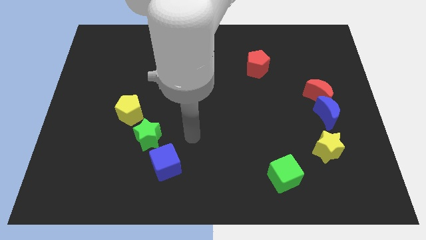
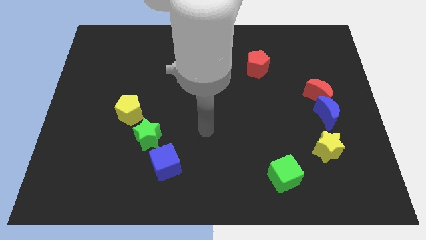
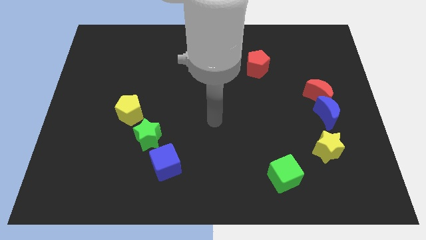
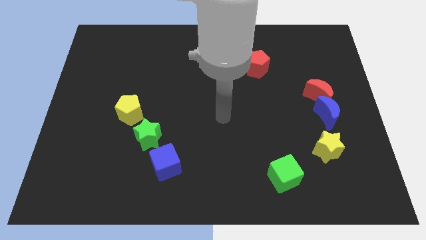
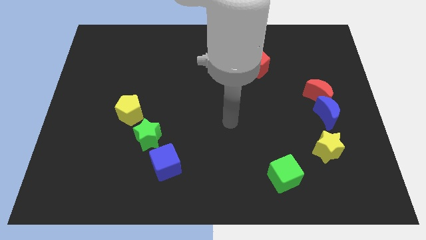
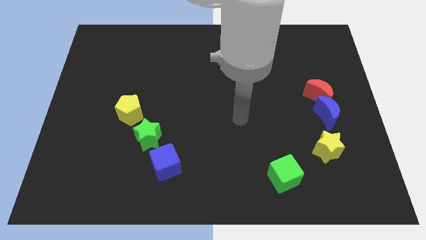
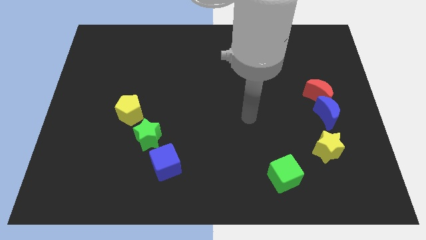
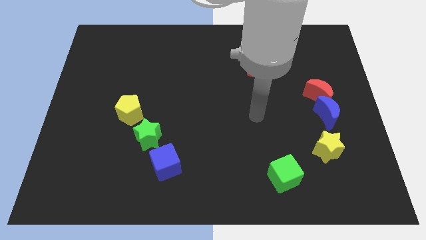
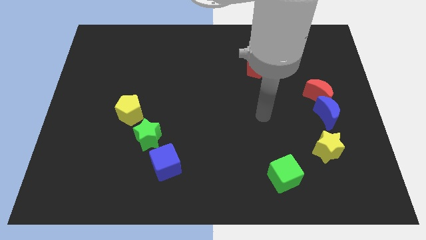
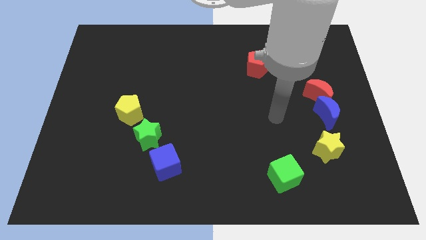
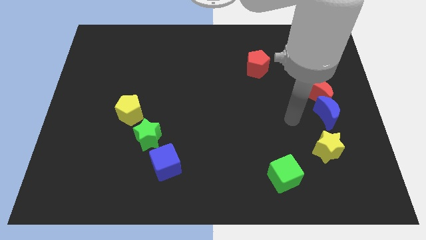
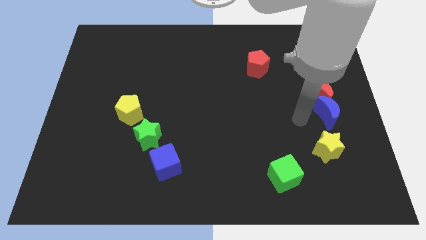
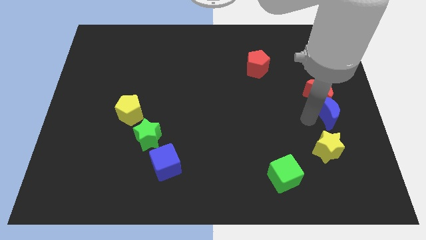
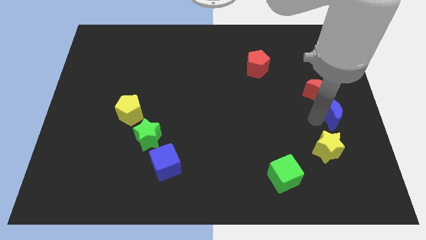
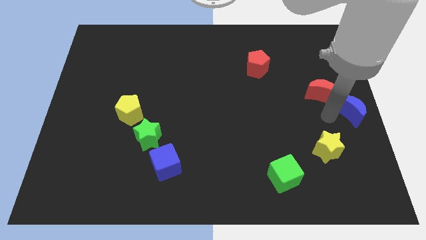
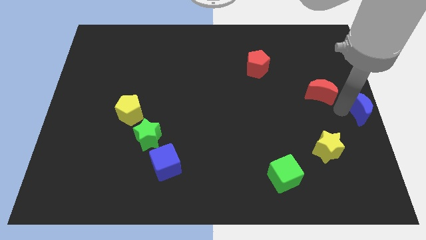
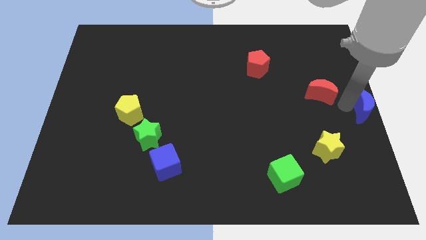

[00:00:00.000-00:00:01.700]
move the red moon away from the blue moon

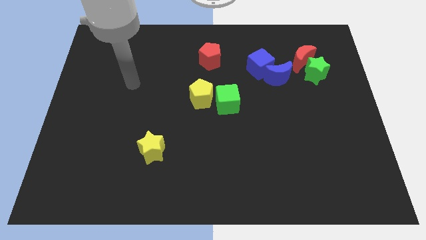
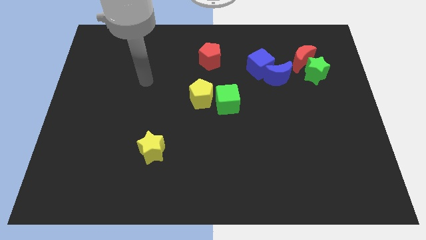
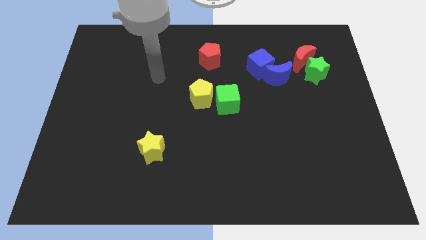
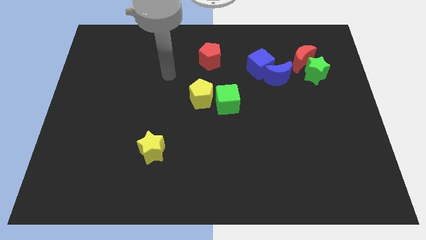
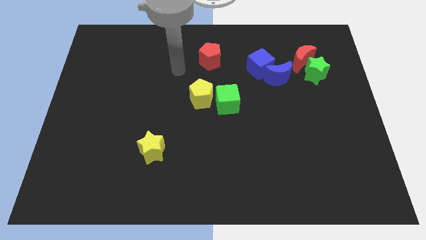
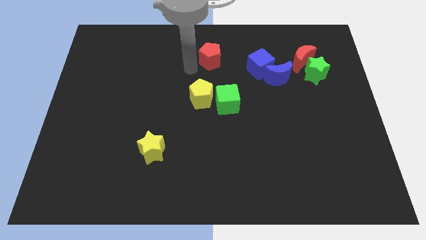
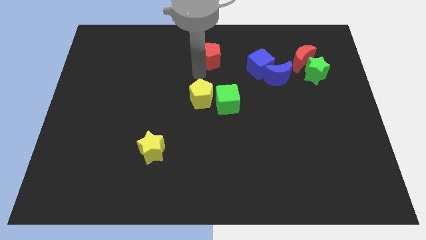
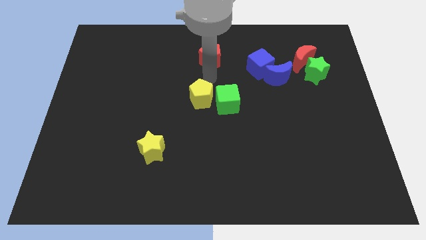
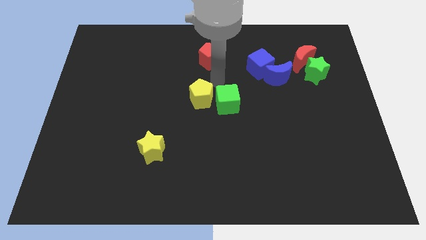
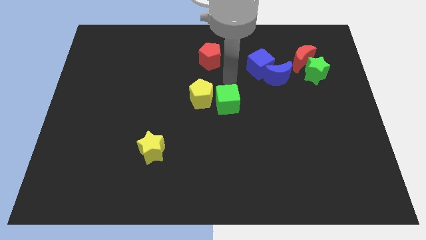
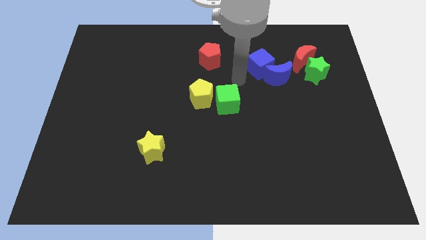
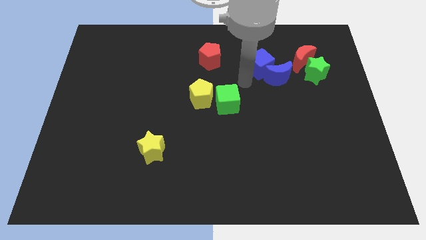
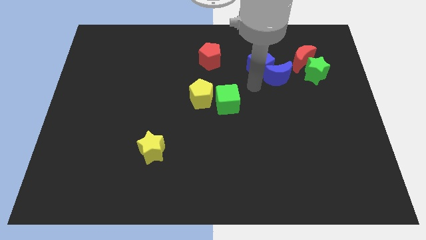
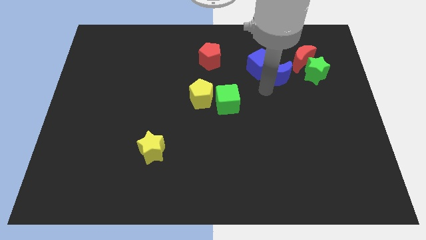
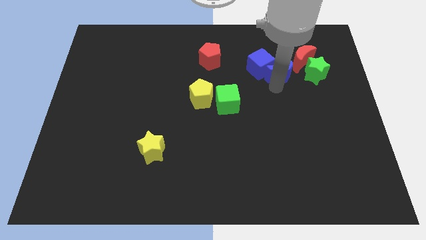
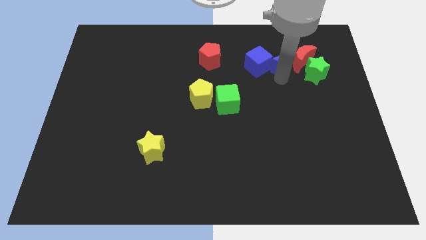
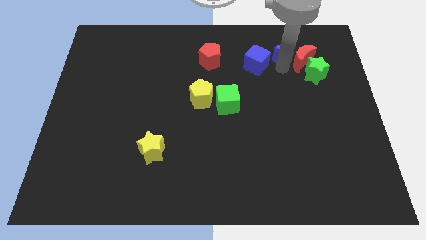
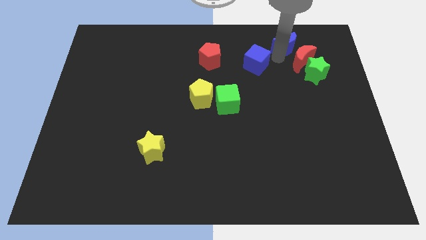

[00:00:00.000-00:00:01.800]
pull the blue cube apart from the blue moon

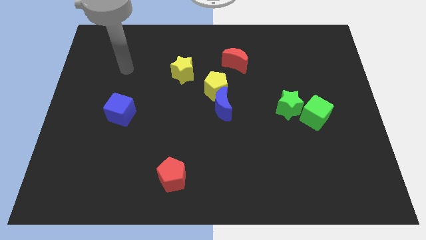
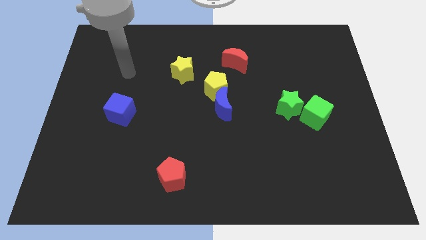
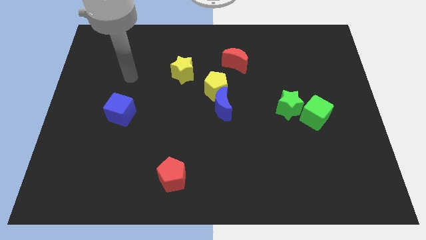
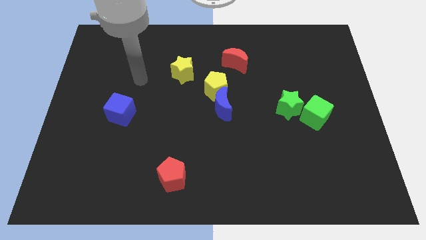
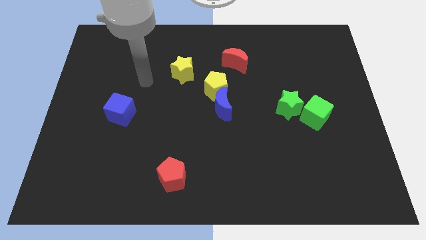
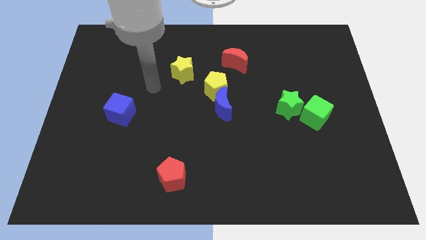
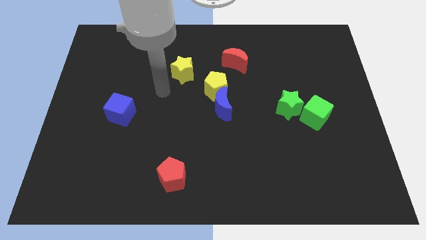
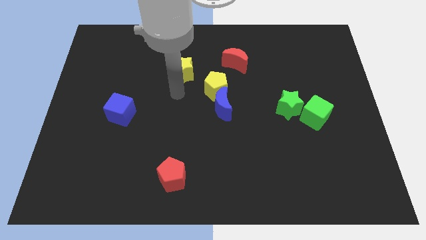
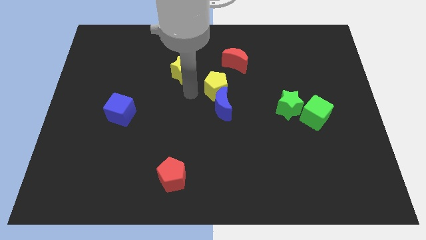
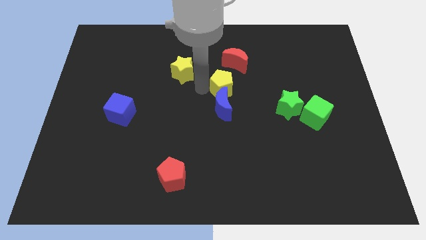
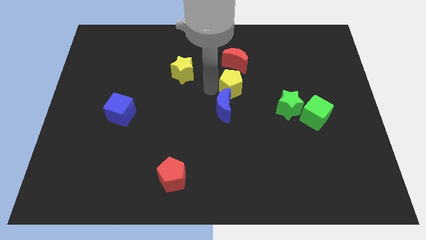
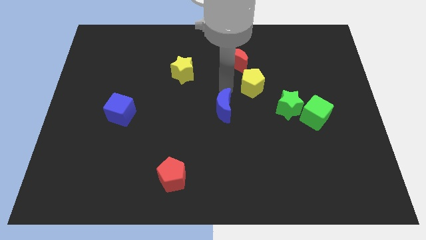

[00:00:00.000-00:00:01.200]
separate the blue moon from the yellow pentagon

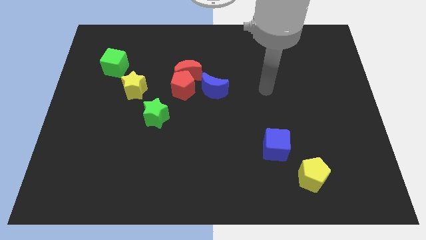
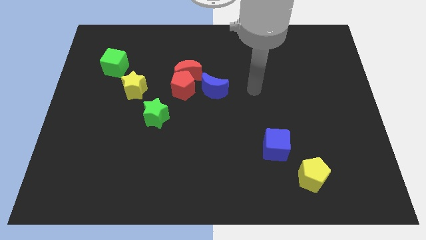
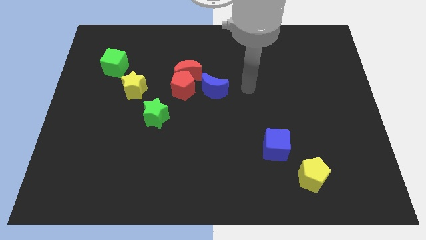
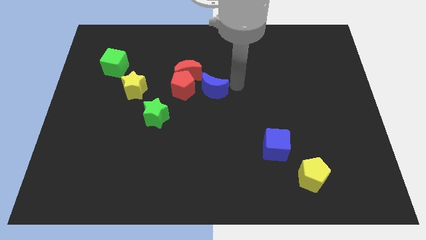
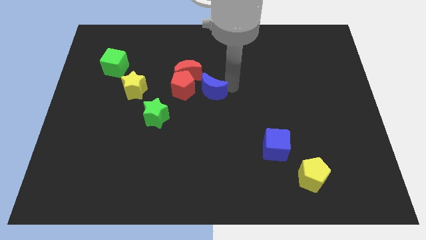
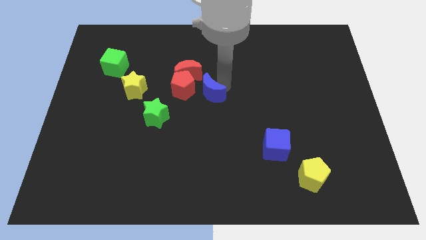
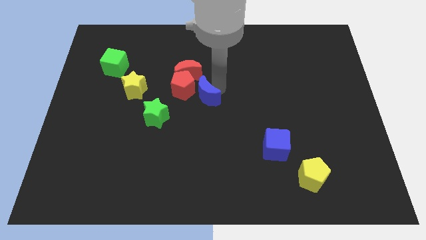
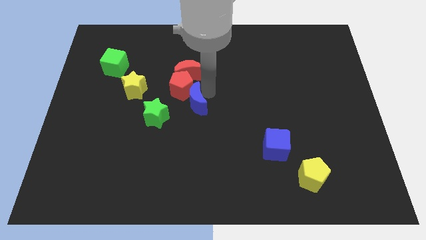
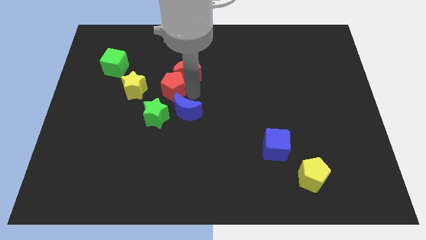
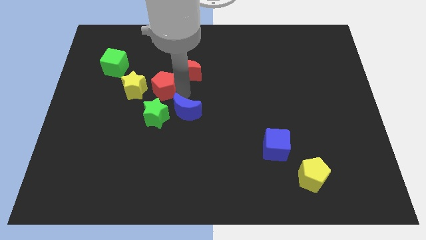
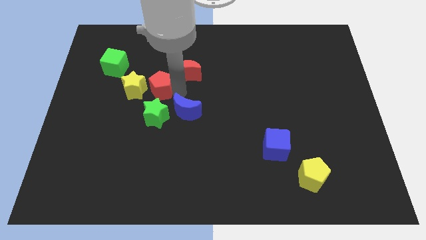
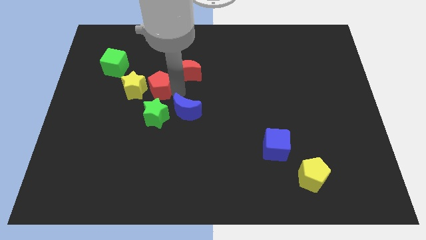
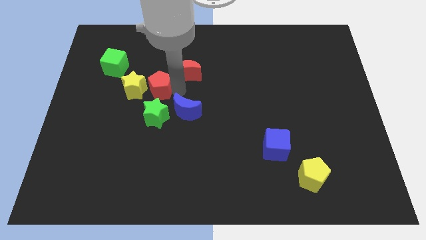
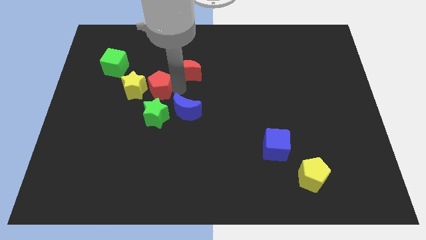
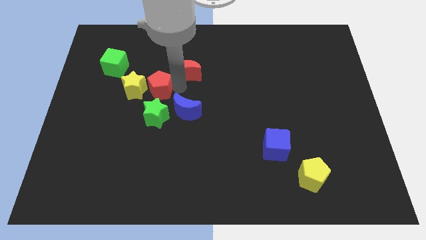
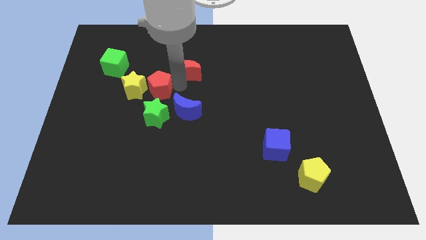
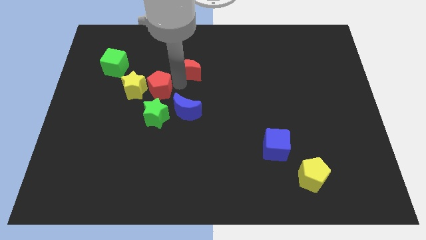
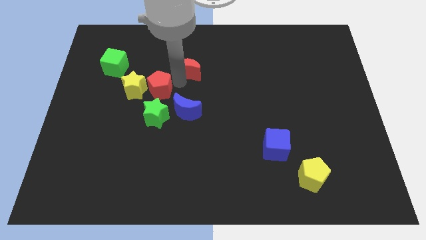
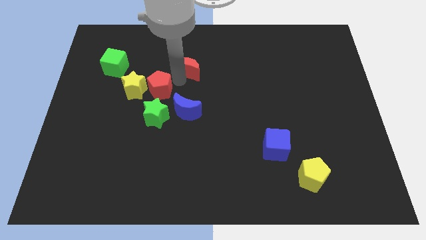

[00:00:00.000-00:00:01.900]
move the red moon away from the red pentagon and blue moon

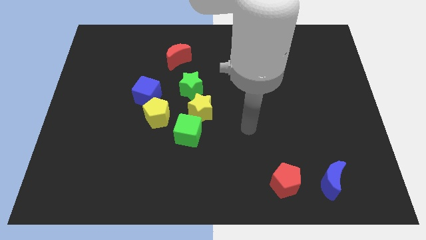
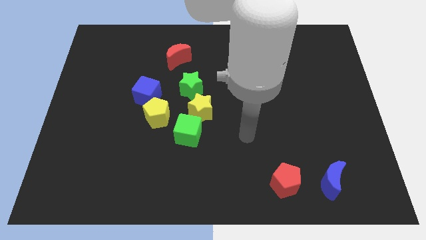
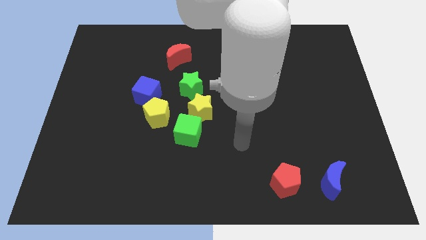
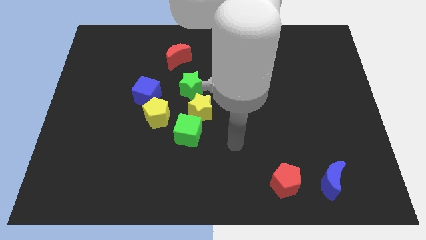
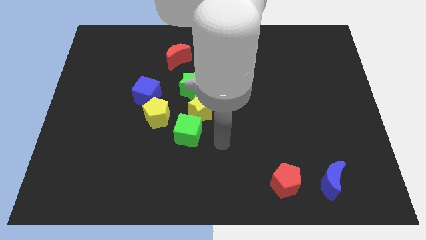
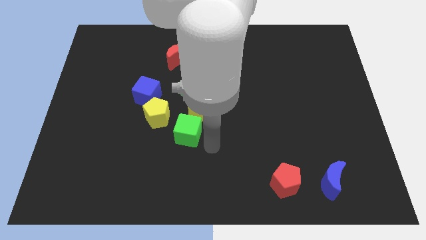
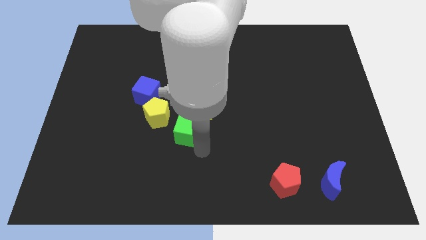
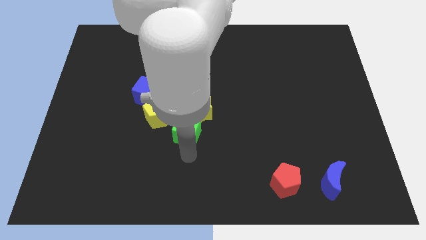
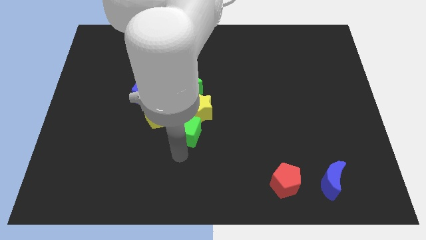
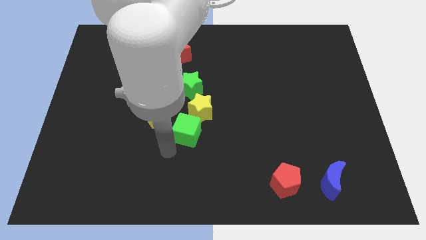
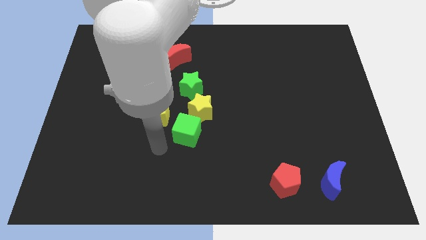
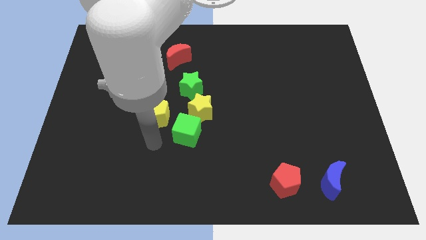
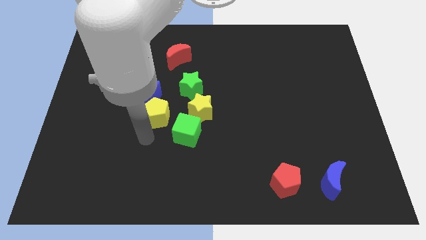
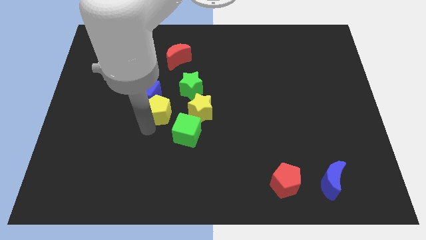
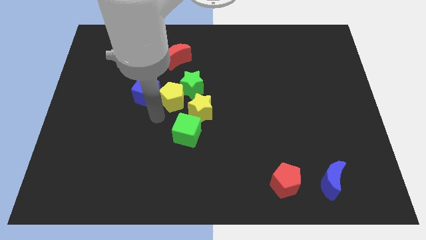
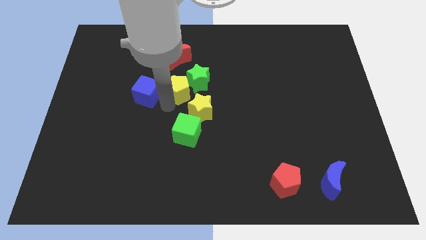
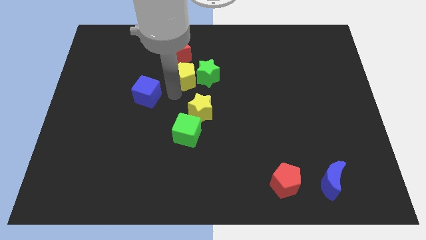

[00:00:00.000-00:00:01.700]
move the blue cube away from the yellow pentagon

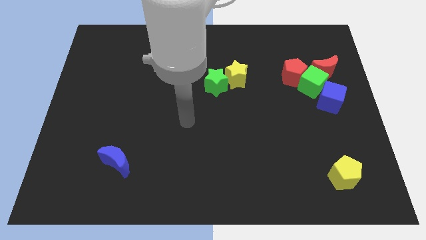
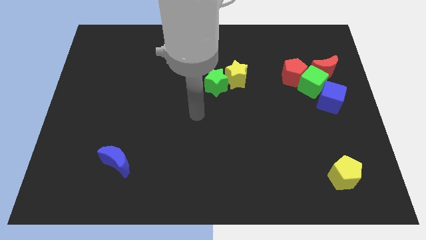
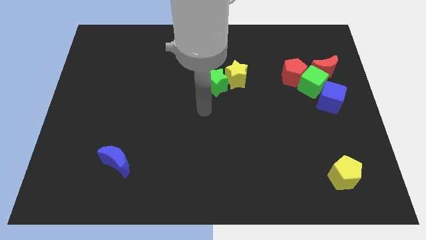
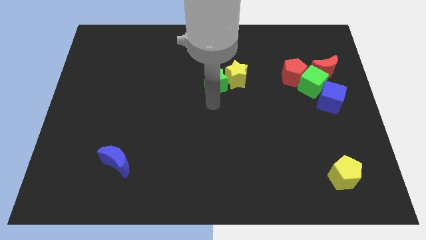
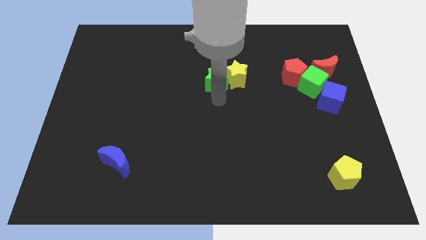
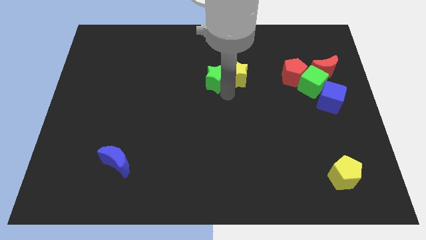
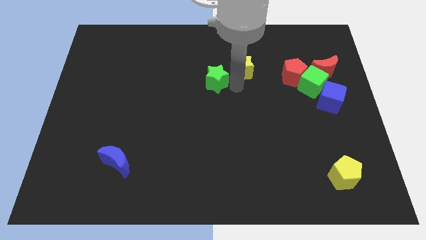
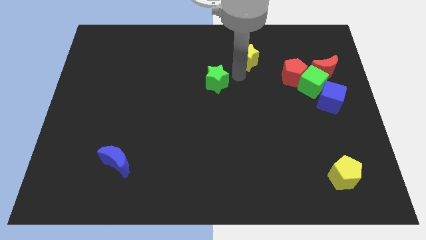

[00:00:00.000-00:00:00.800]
separate the green star from the yellow star
